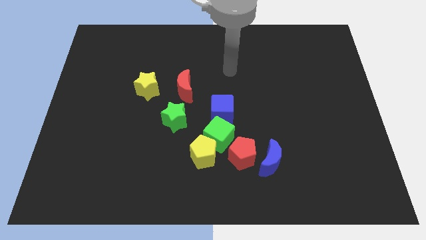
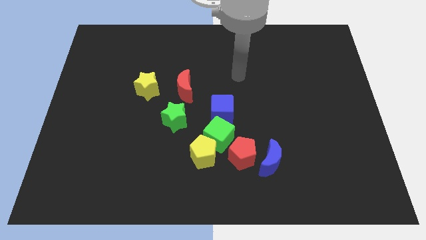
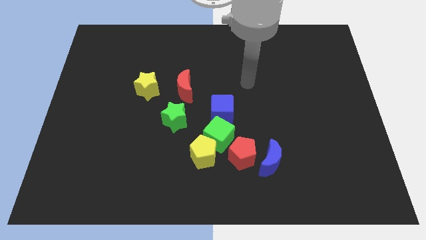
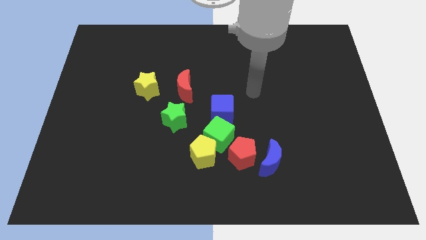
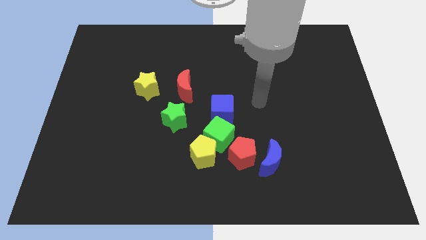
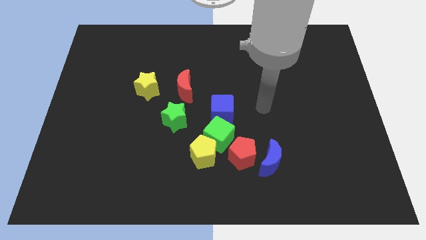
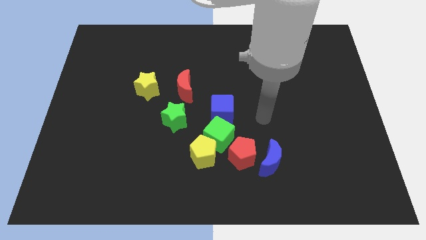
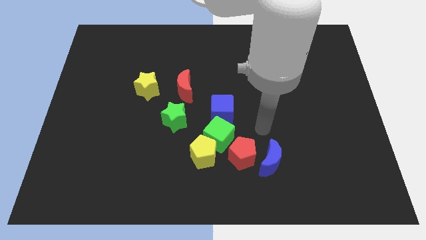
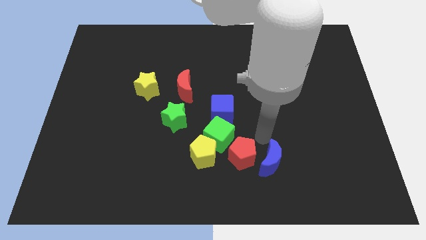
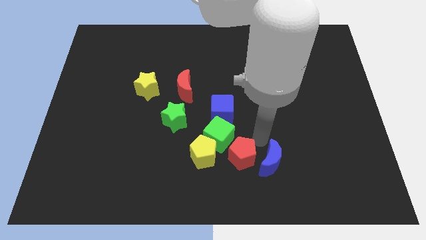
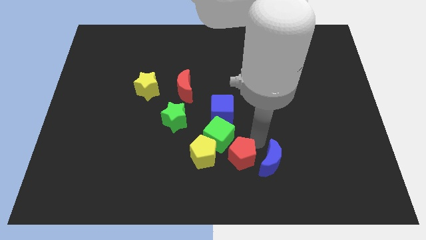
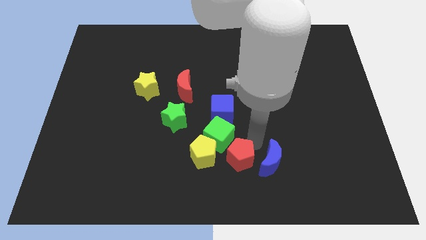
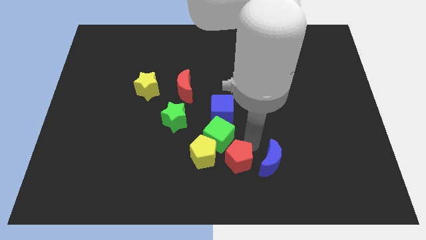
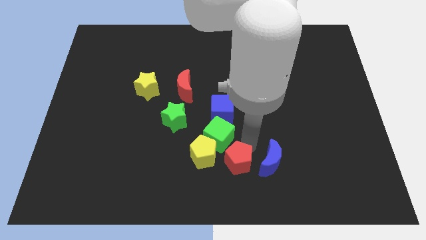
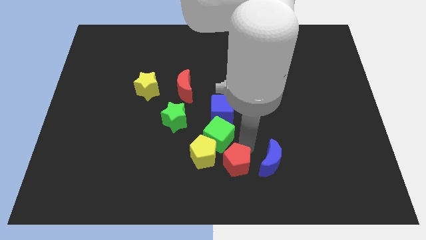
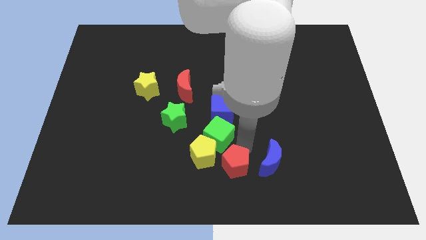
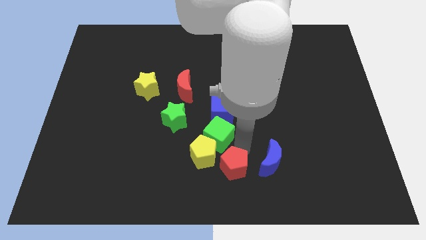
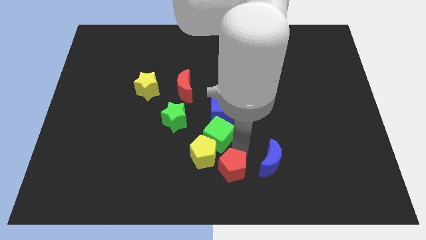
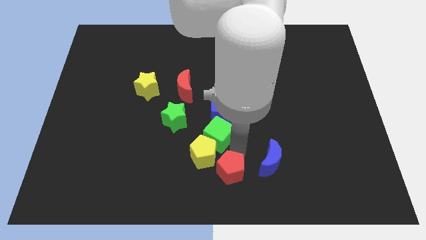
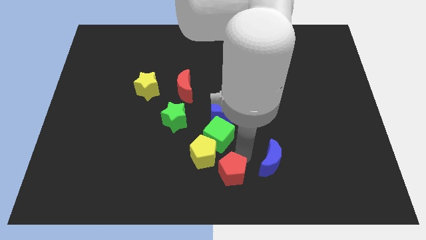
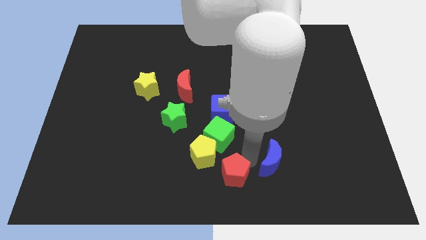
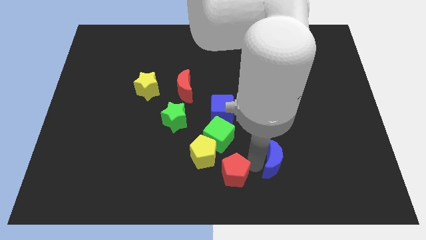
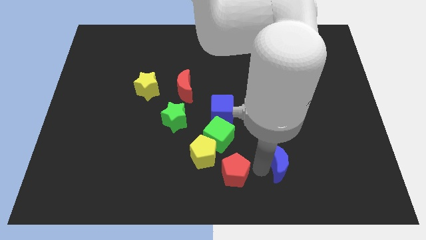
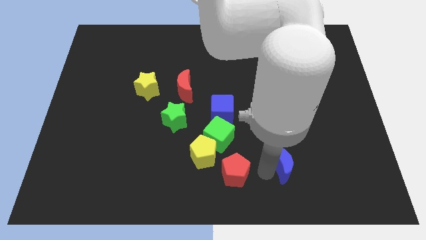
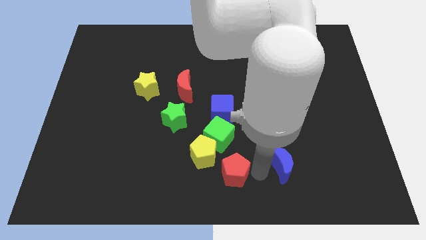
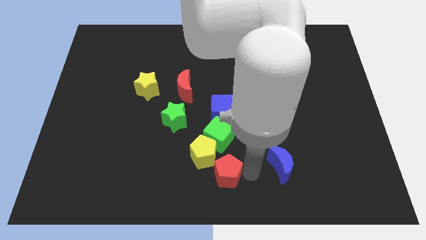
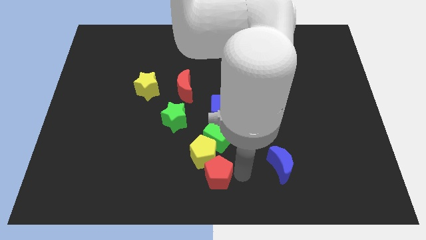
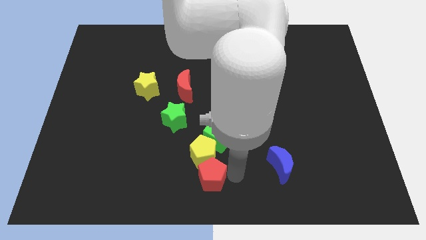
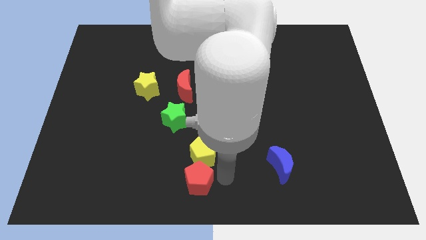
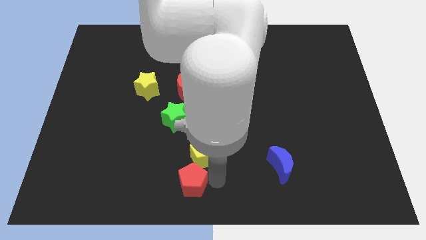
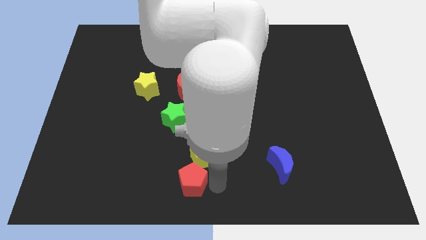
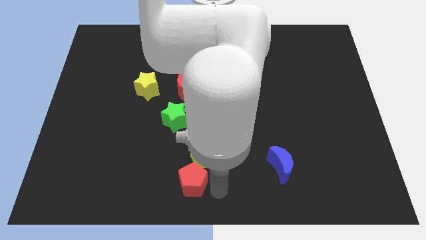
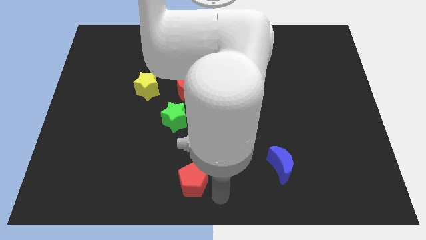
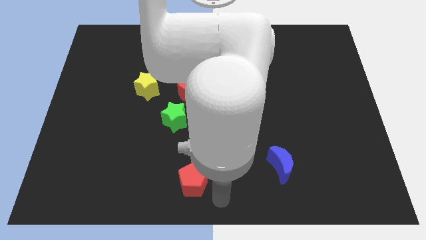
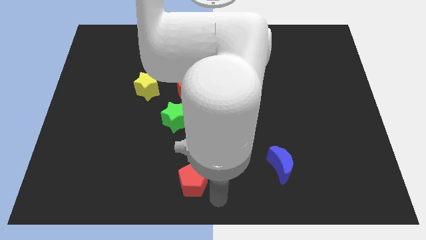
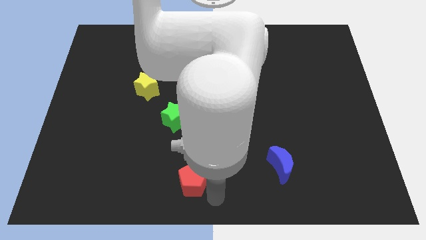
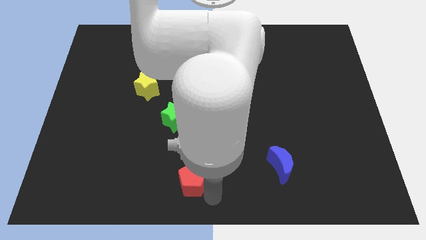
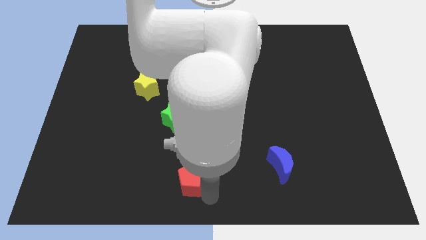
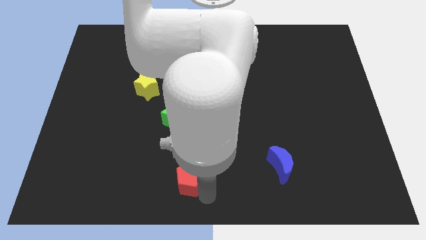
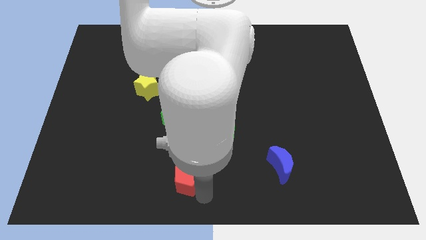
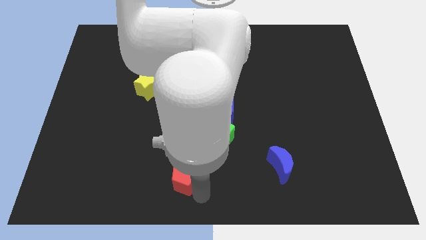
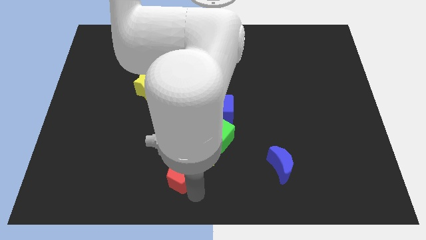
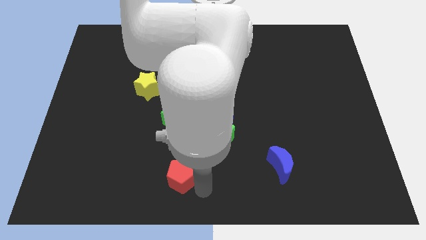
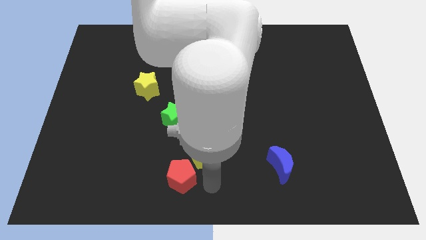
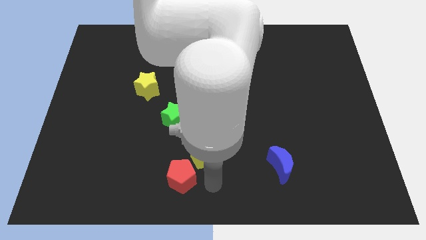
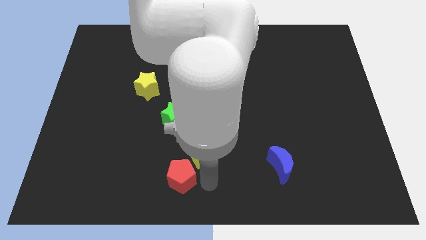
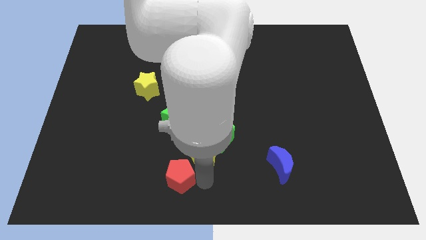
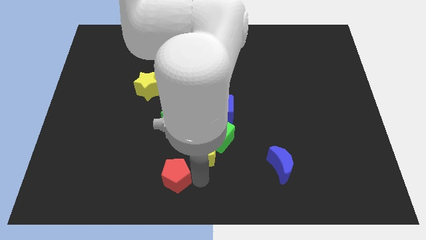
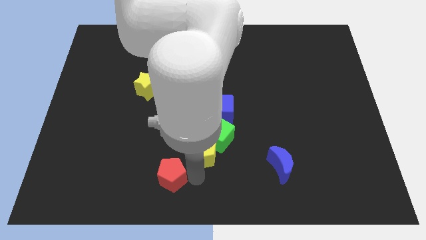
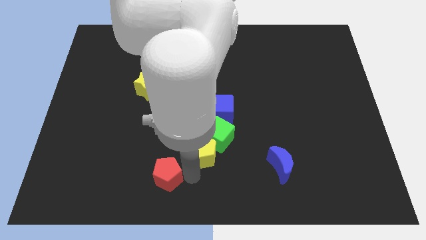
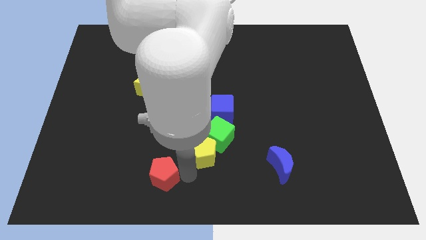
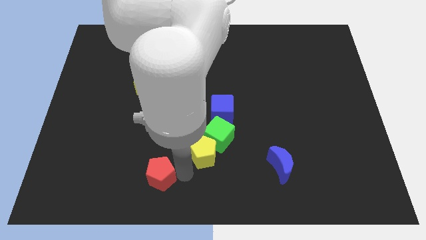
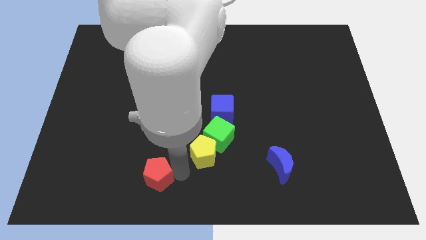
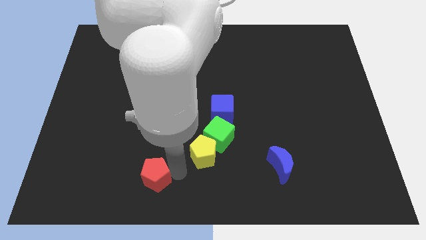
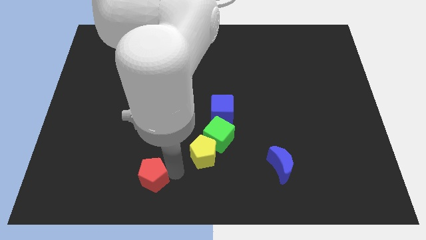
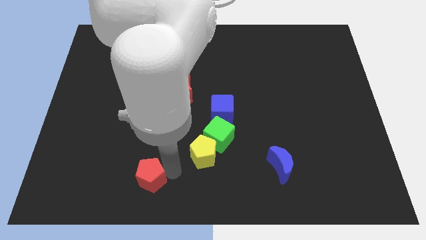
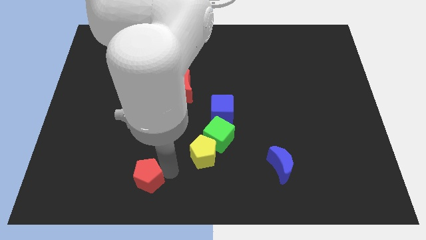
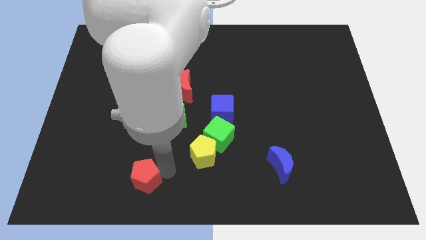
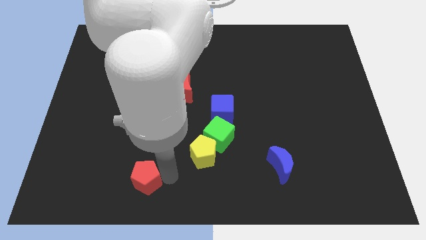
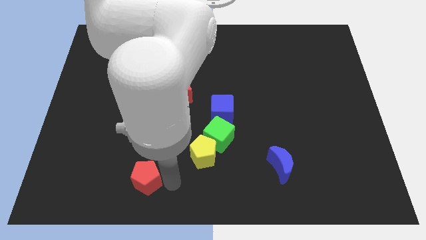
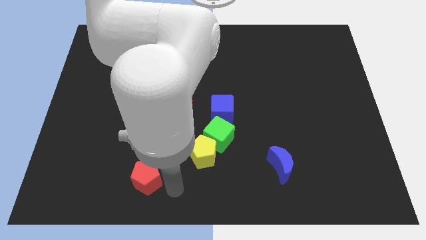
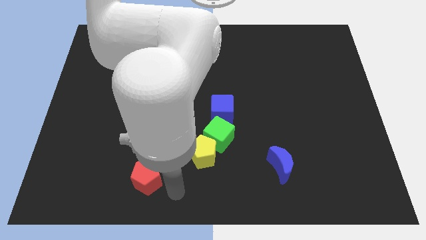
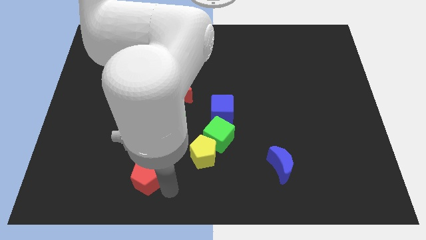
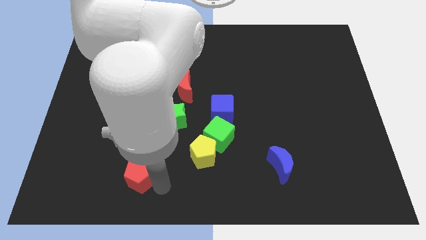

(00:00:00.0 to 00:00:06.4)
slide the red pentagon left

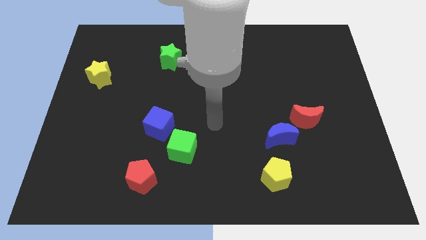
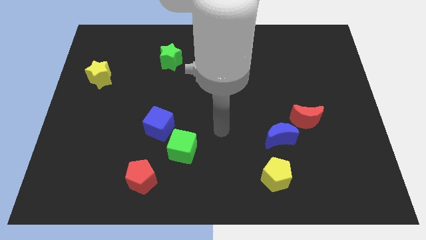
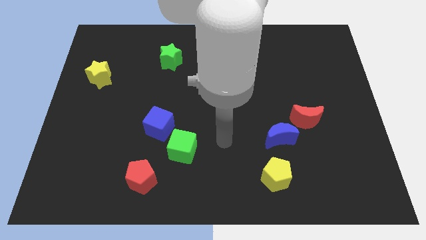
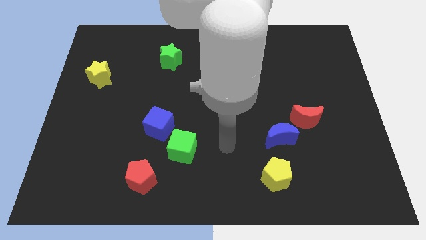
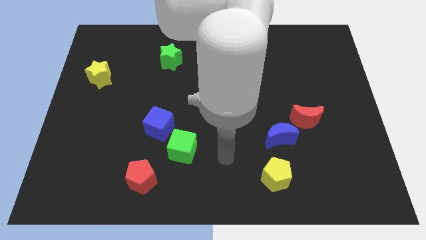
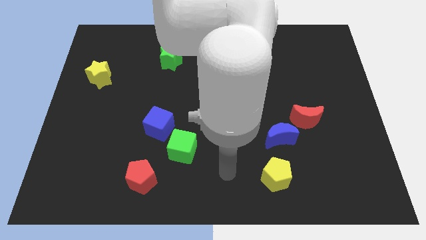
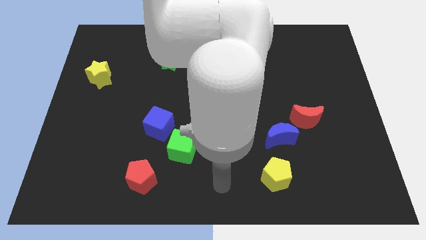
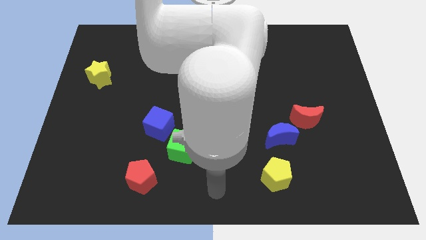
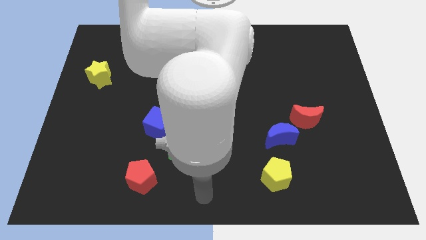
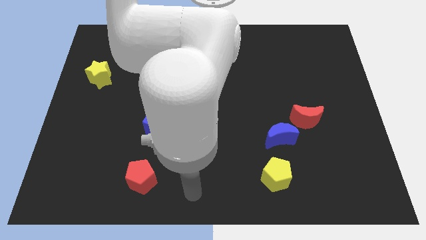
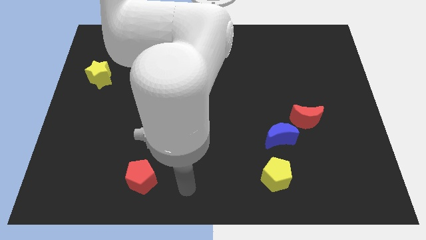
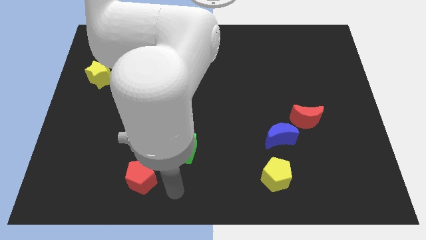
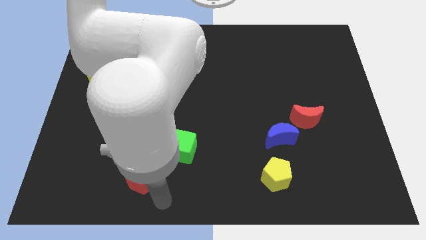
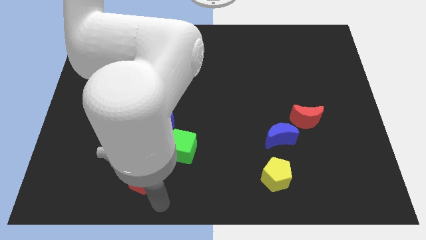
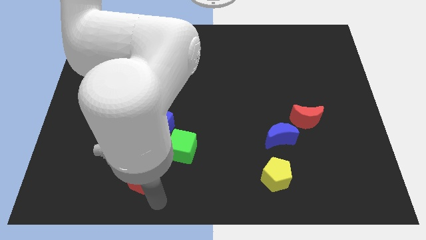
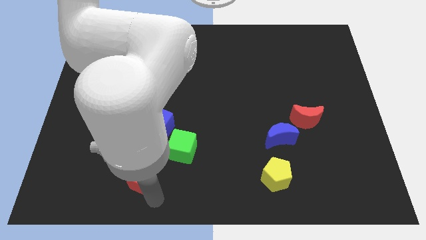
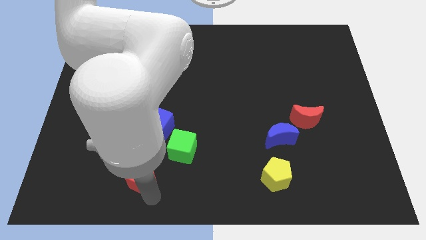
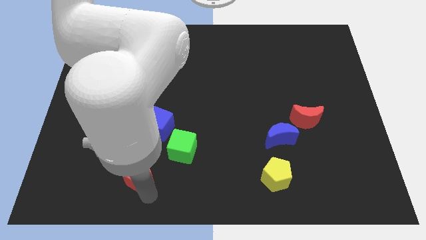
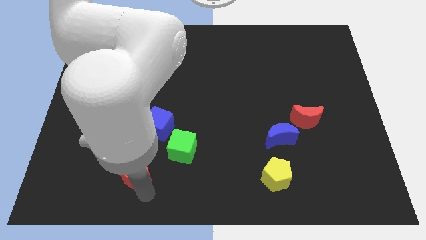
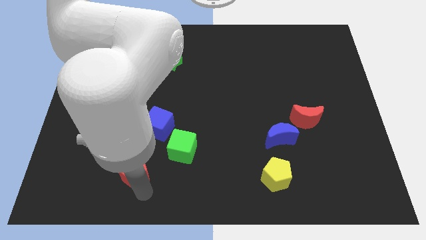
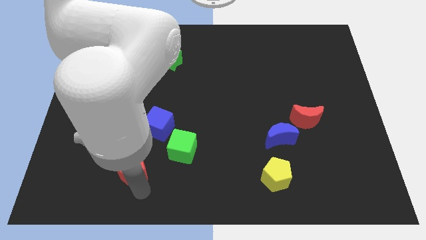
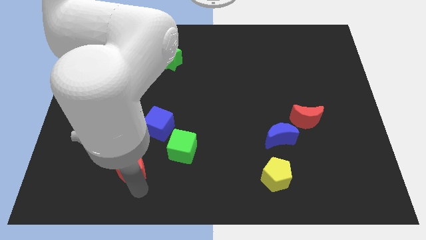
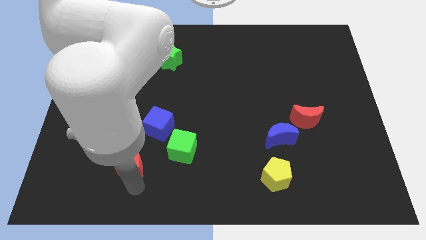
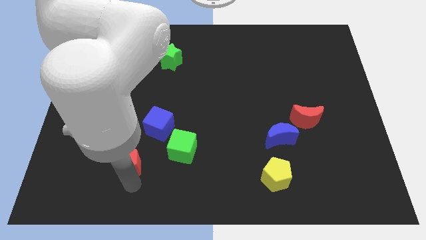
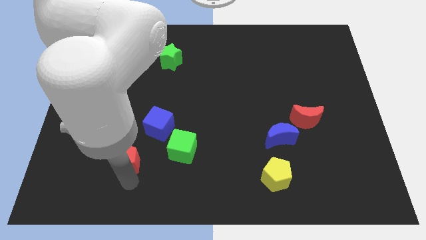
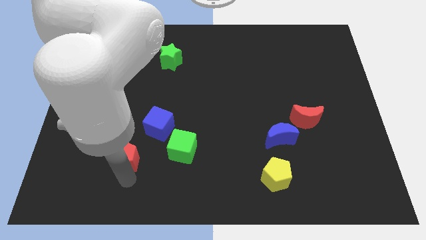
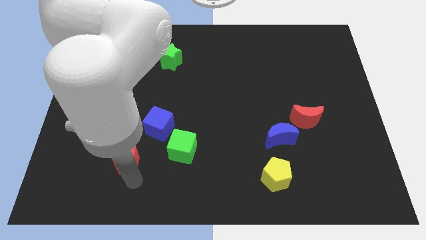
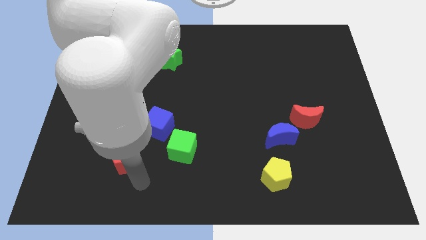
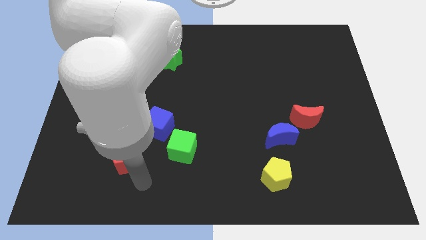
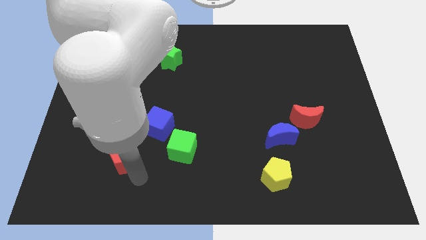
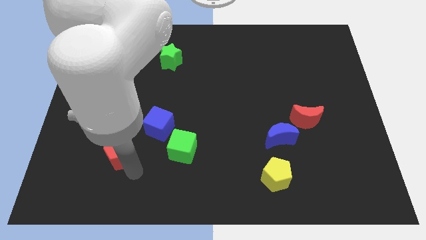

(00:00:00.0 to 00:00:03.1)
slightly push the red pentagon up and to the left
